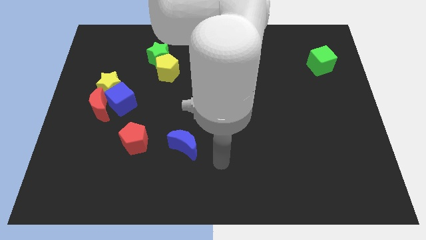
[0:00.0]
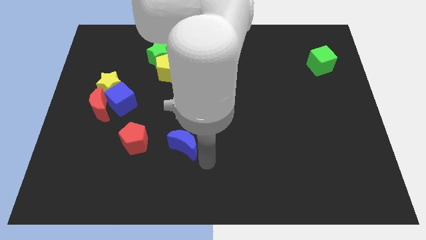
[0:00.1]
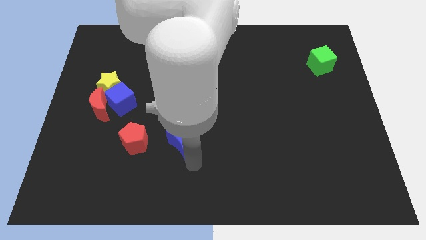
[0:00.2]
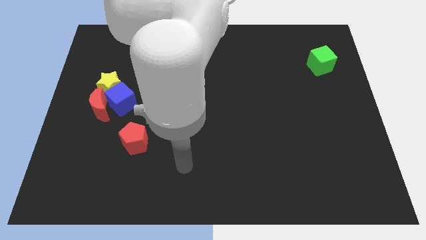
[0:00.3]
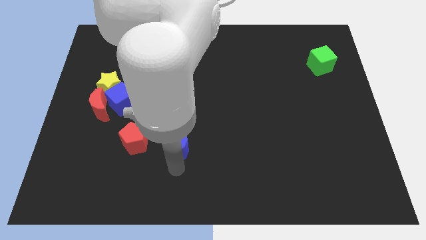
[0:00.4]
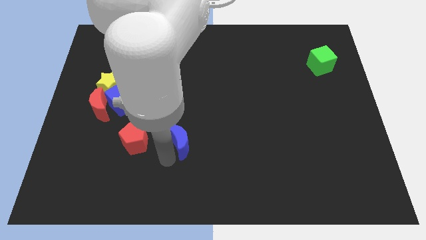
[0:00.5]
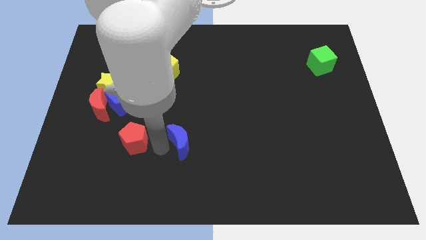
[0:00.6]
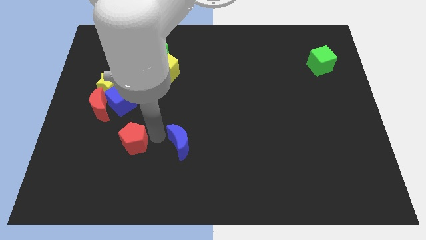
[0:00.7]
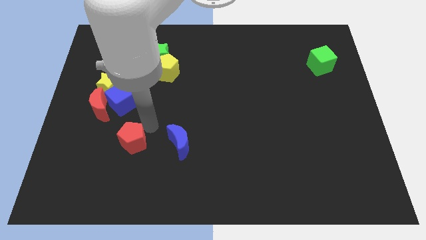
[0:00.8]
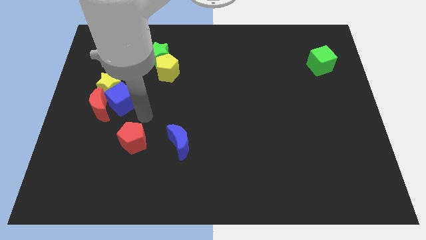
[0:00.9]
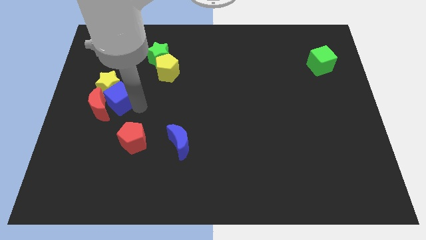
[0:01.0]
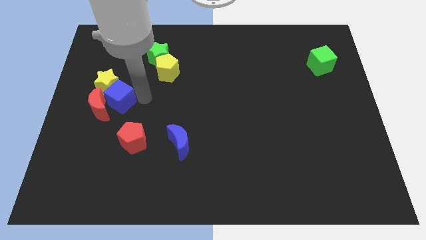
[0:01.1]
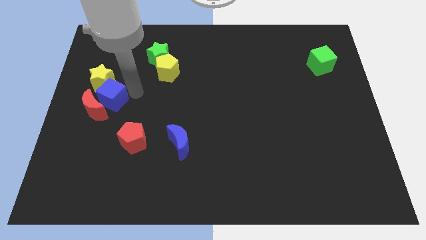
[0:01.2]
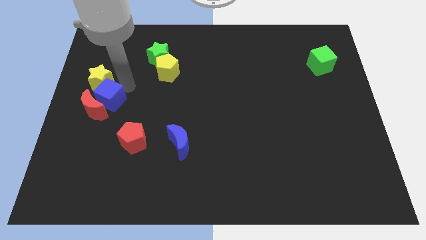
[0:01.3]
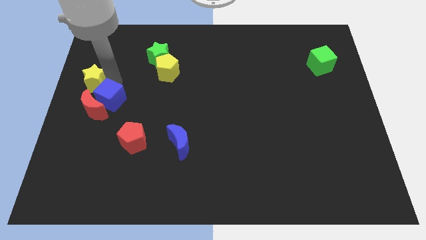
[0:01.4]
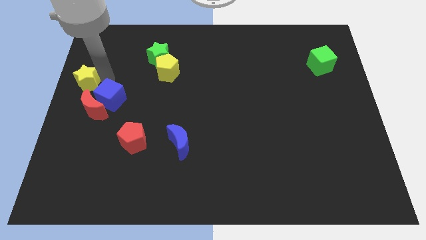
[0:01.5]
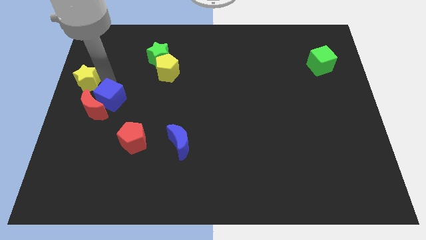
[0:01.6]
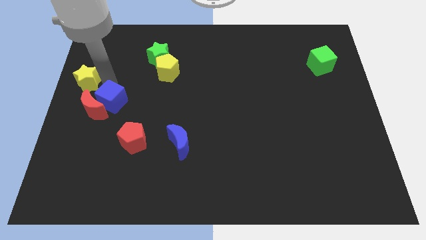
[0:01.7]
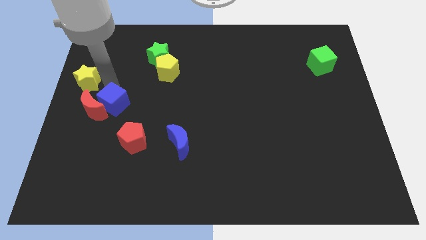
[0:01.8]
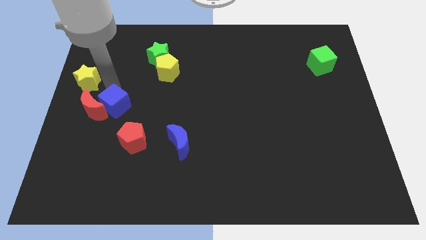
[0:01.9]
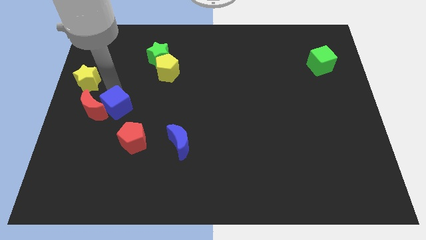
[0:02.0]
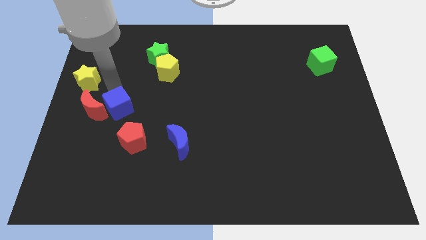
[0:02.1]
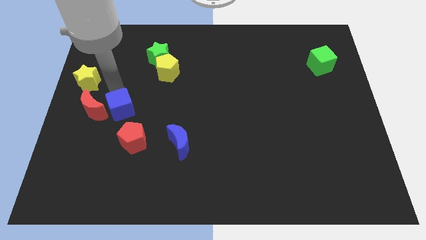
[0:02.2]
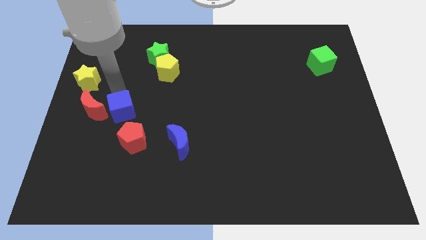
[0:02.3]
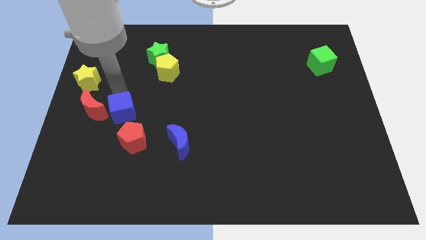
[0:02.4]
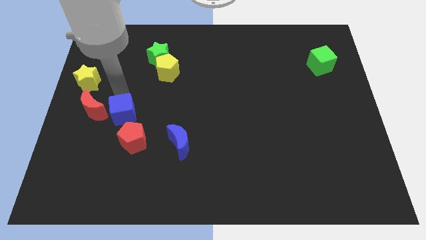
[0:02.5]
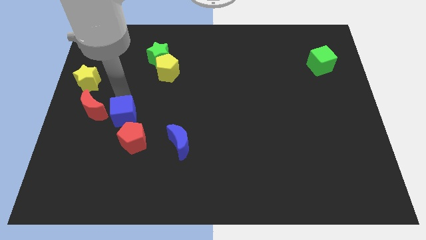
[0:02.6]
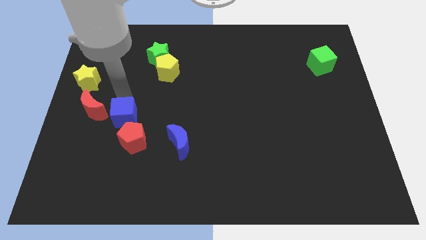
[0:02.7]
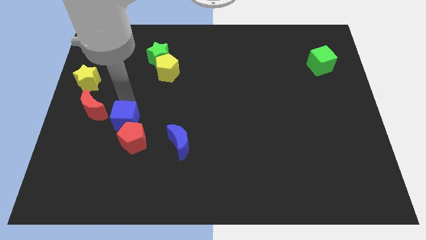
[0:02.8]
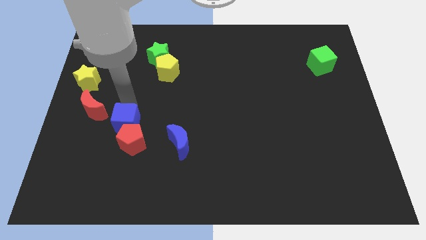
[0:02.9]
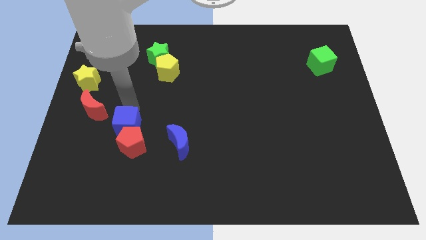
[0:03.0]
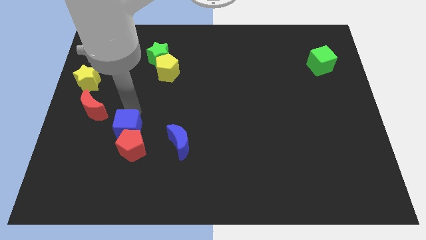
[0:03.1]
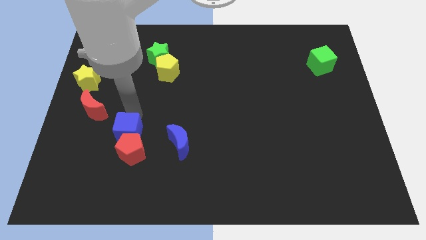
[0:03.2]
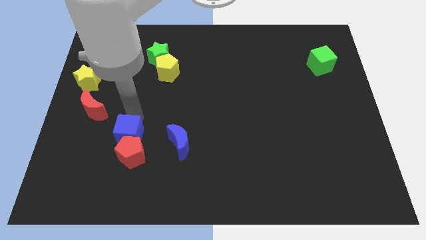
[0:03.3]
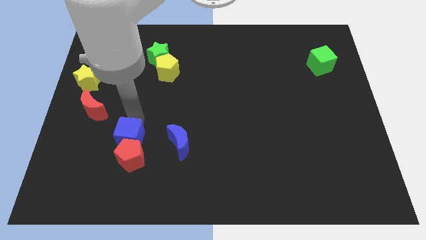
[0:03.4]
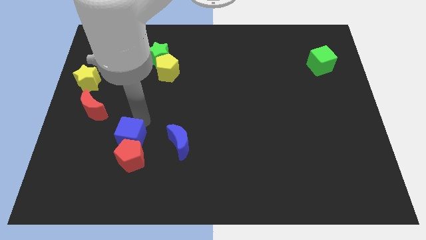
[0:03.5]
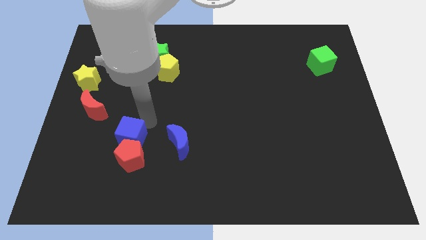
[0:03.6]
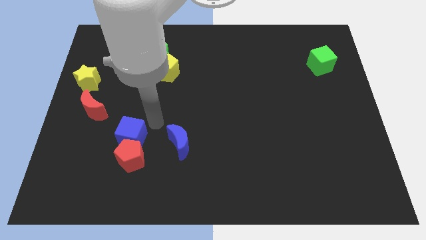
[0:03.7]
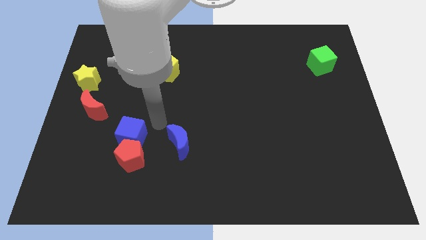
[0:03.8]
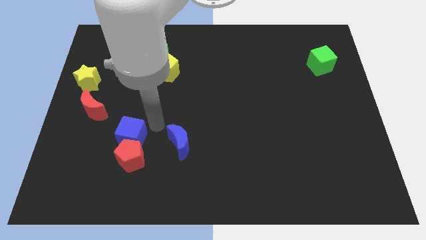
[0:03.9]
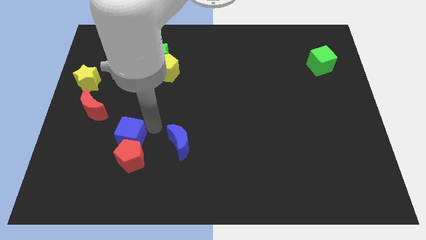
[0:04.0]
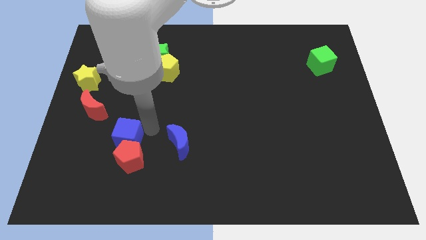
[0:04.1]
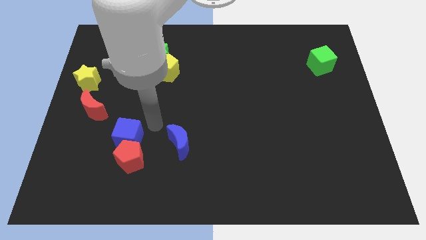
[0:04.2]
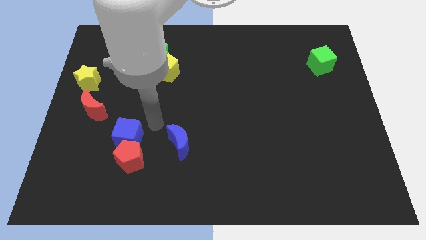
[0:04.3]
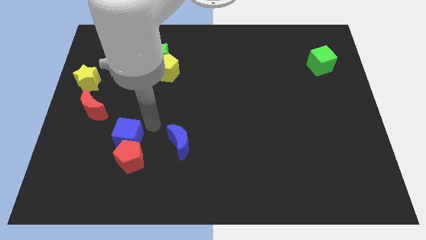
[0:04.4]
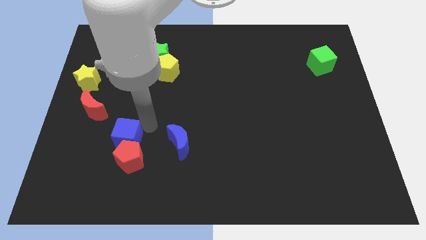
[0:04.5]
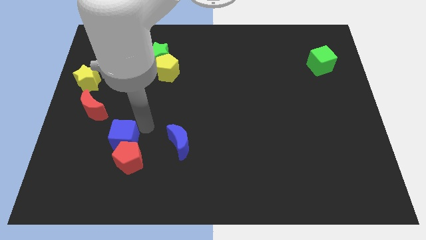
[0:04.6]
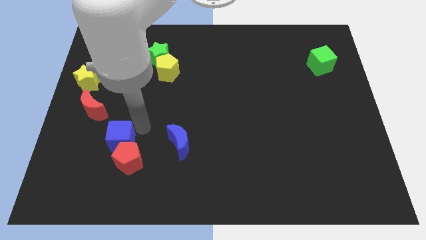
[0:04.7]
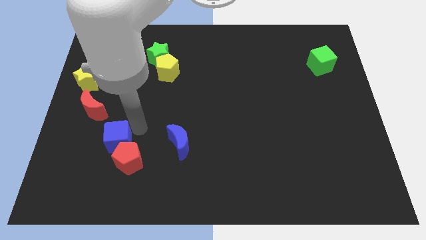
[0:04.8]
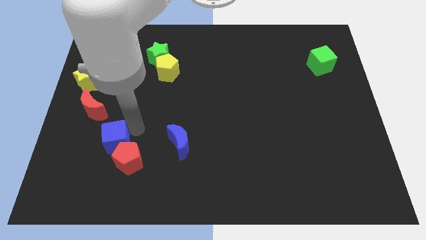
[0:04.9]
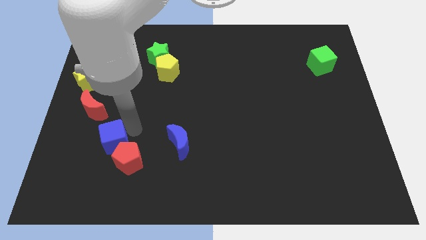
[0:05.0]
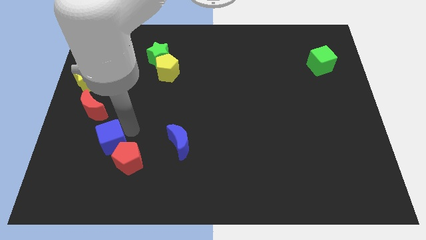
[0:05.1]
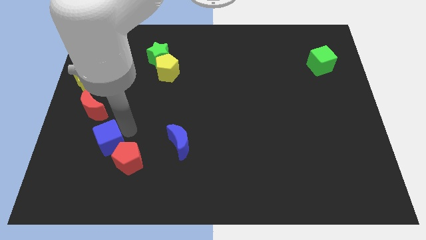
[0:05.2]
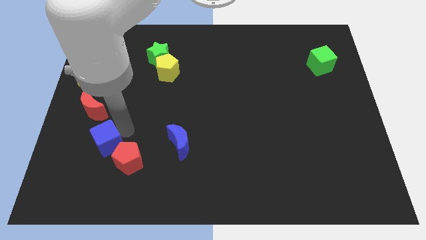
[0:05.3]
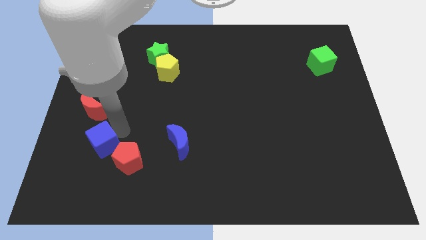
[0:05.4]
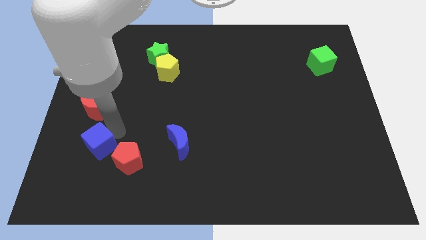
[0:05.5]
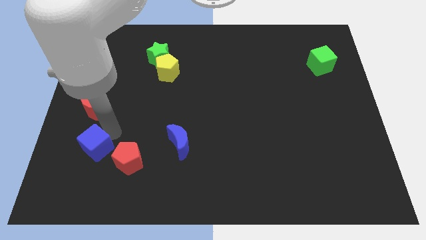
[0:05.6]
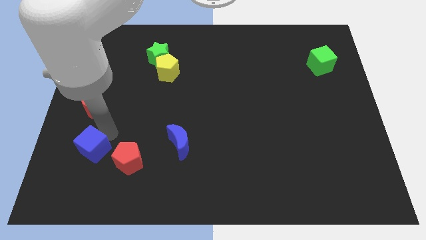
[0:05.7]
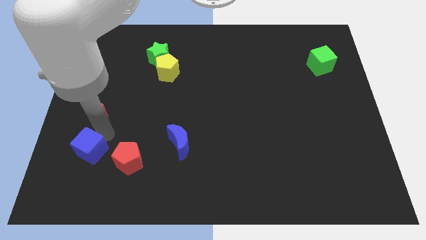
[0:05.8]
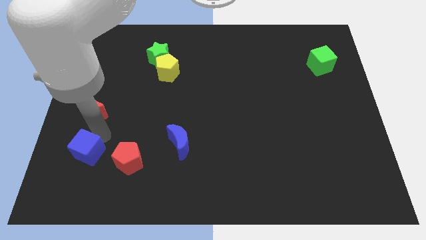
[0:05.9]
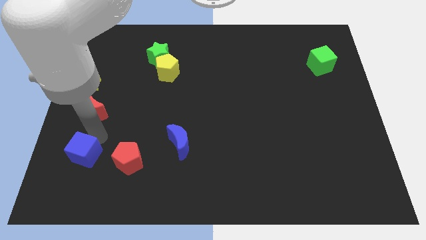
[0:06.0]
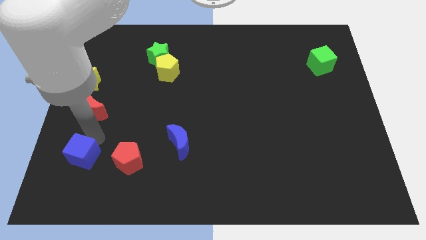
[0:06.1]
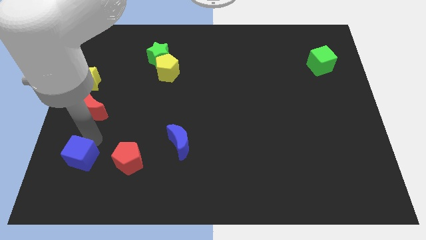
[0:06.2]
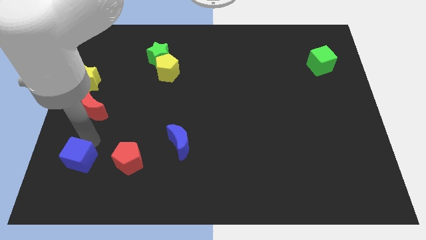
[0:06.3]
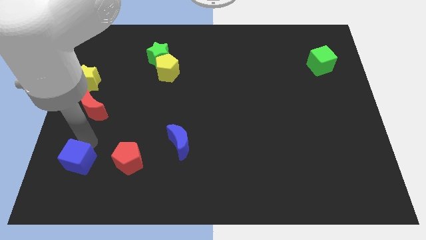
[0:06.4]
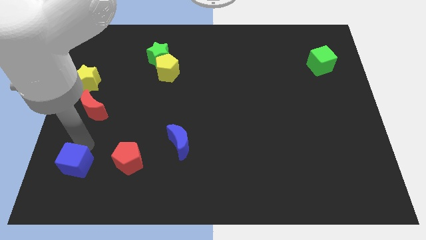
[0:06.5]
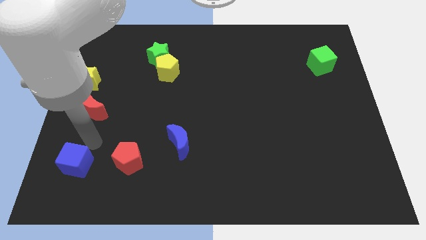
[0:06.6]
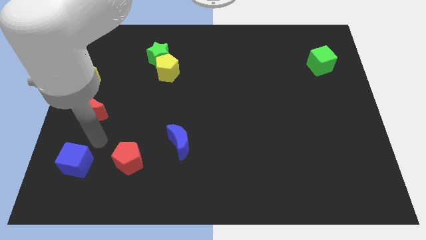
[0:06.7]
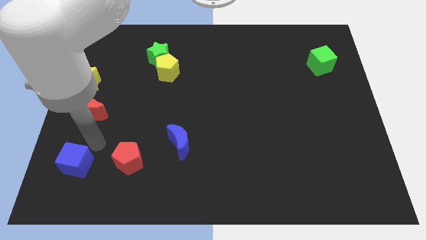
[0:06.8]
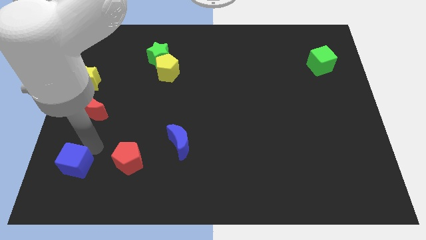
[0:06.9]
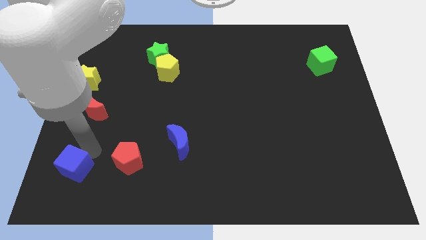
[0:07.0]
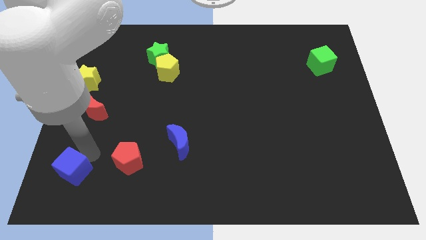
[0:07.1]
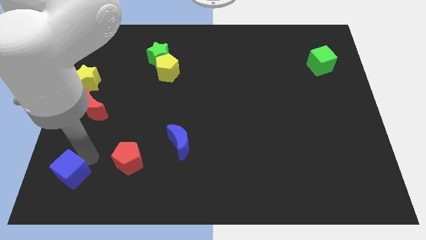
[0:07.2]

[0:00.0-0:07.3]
slide the blue cube to the lower left corner
